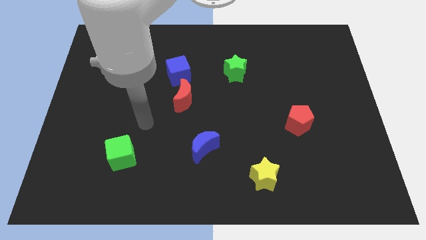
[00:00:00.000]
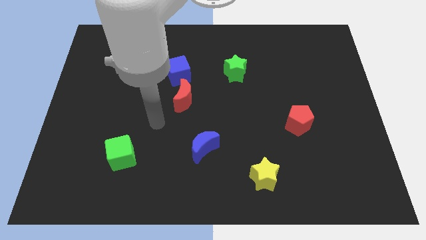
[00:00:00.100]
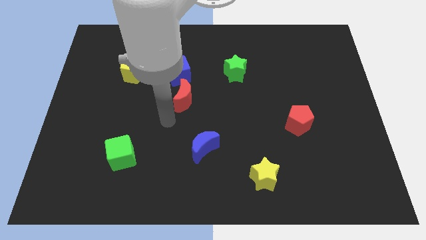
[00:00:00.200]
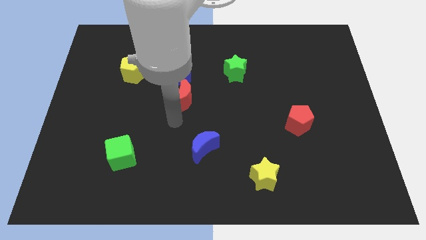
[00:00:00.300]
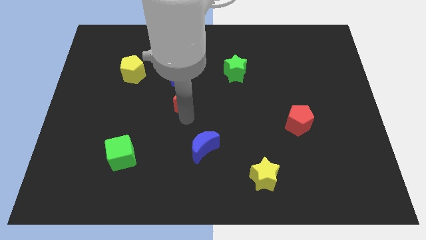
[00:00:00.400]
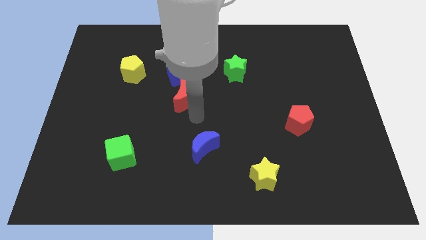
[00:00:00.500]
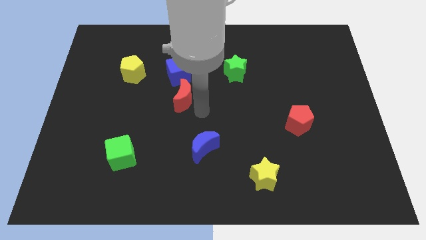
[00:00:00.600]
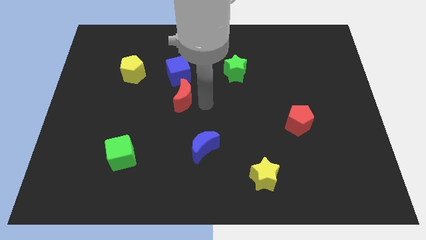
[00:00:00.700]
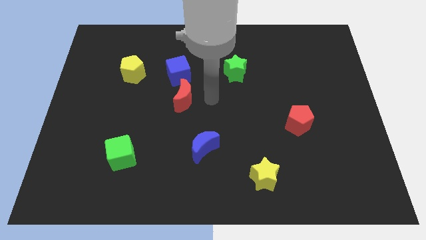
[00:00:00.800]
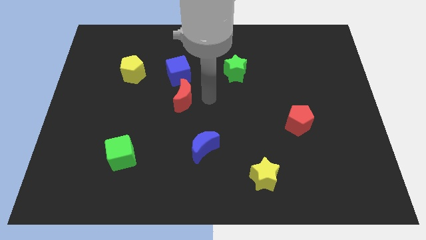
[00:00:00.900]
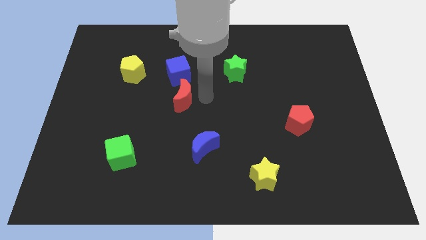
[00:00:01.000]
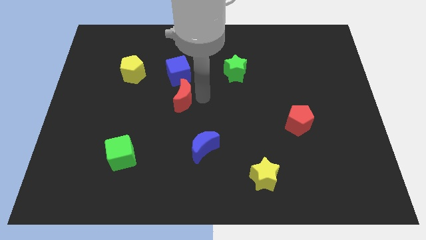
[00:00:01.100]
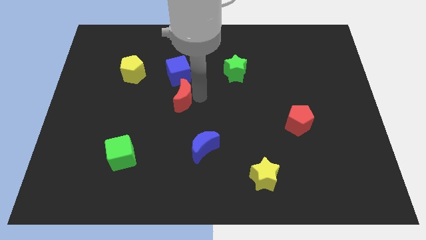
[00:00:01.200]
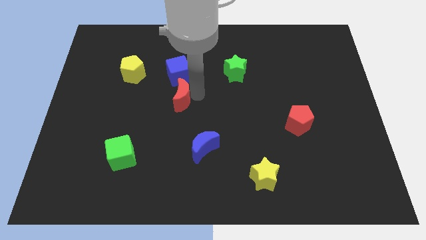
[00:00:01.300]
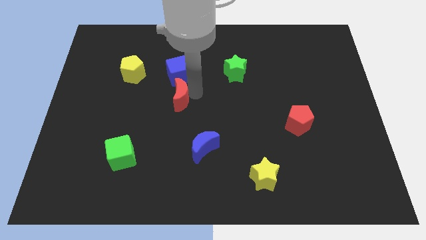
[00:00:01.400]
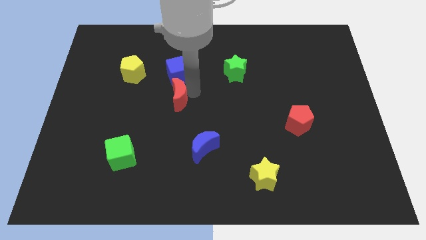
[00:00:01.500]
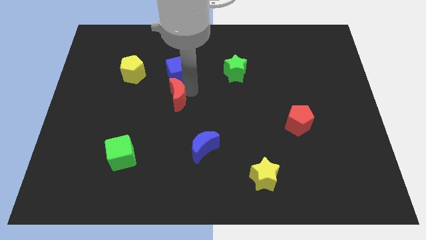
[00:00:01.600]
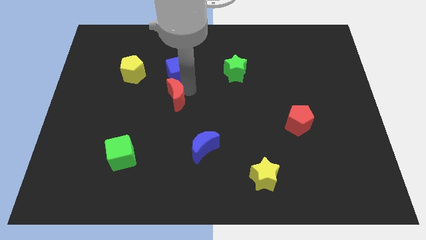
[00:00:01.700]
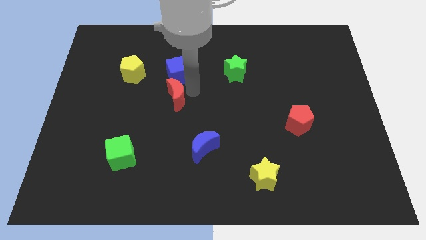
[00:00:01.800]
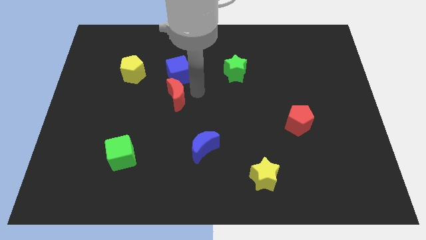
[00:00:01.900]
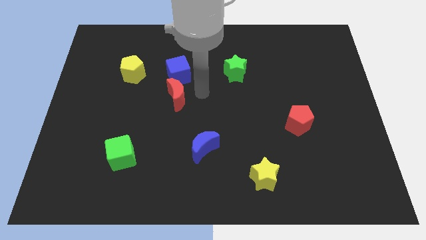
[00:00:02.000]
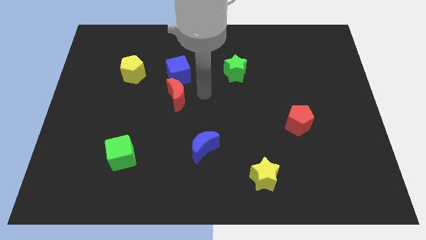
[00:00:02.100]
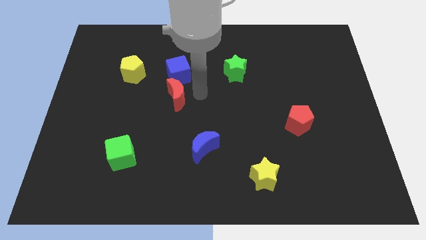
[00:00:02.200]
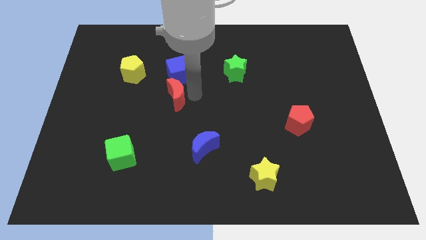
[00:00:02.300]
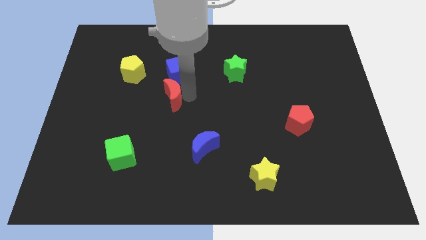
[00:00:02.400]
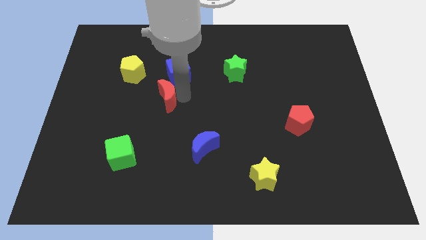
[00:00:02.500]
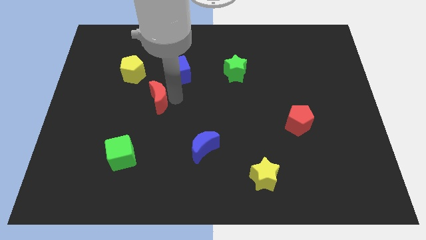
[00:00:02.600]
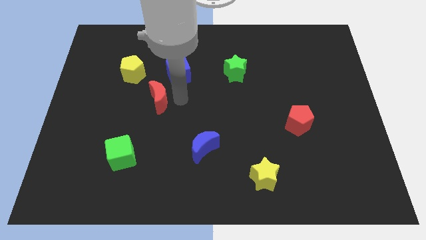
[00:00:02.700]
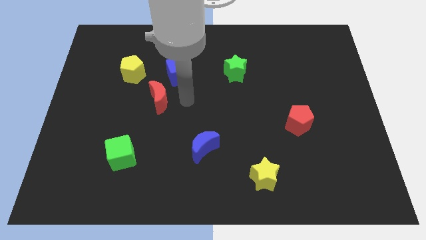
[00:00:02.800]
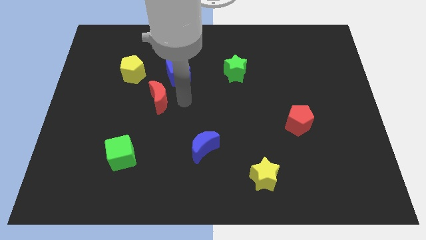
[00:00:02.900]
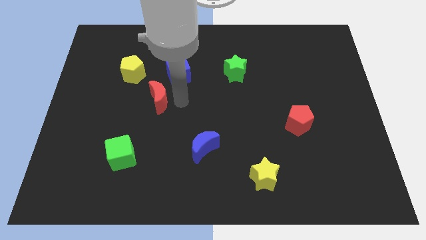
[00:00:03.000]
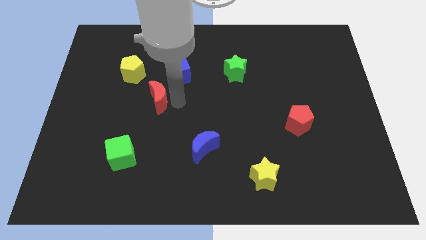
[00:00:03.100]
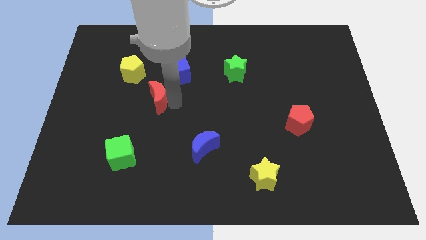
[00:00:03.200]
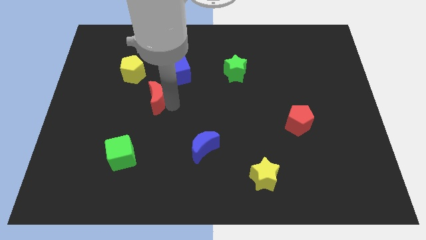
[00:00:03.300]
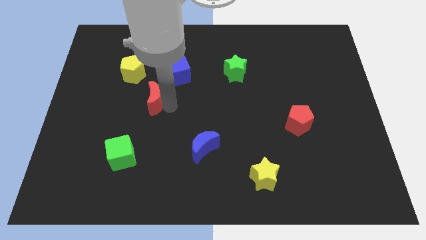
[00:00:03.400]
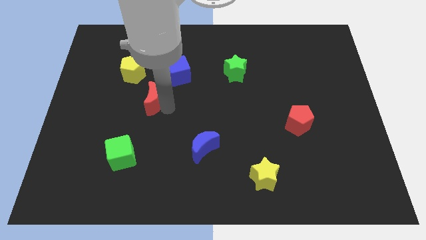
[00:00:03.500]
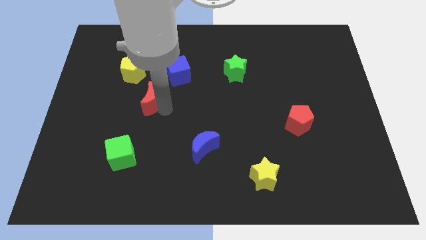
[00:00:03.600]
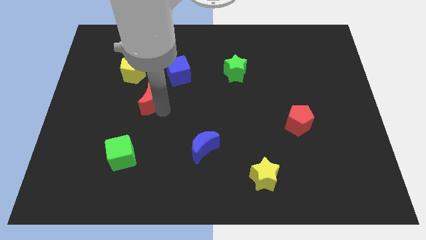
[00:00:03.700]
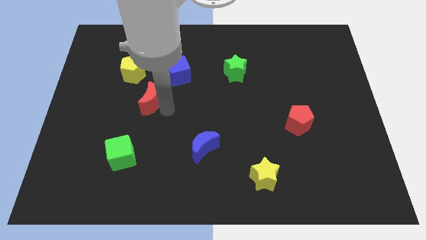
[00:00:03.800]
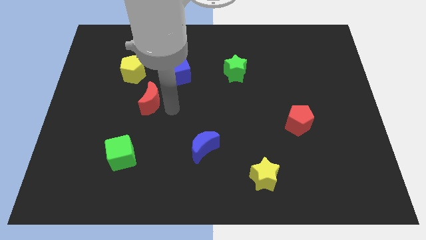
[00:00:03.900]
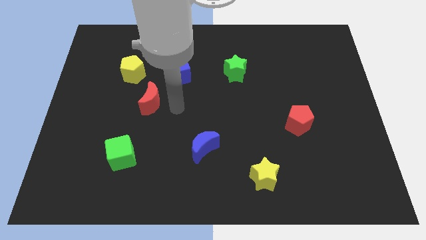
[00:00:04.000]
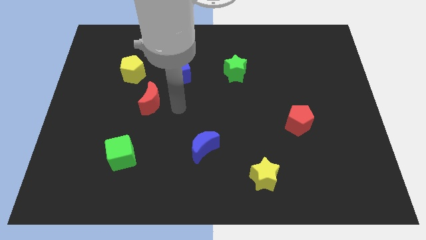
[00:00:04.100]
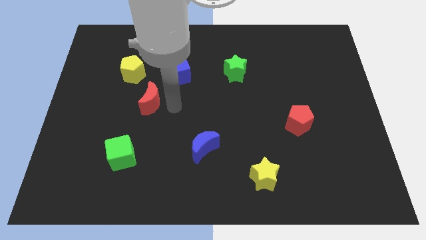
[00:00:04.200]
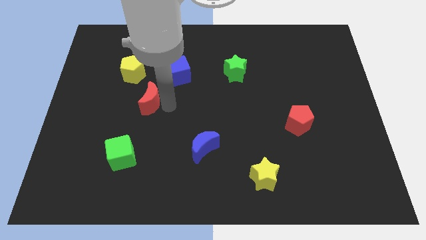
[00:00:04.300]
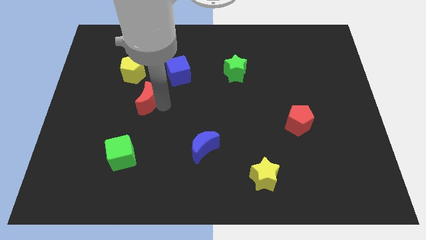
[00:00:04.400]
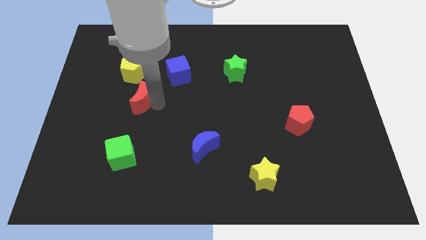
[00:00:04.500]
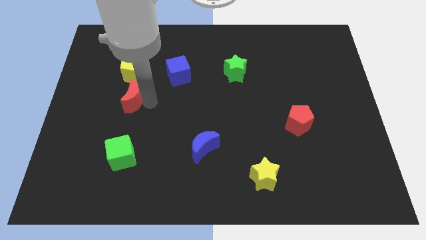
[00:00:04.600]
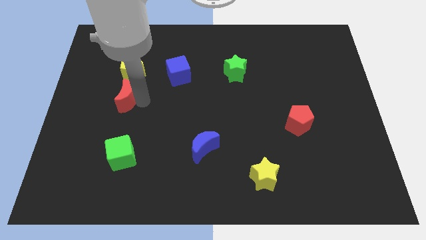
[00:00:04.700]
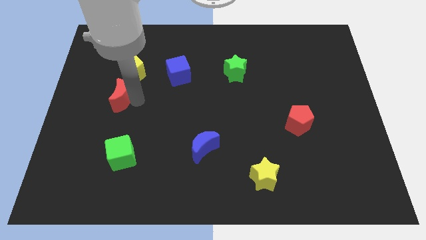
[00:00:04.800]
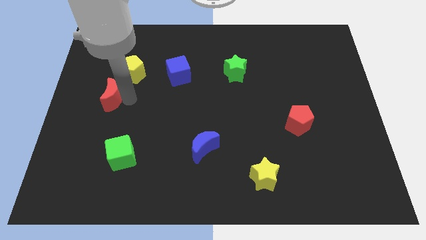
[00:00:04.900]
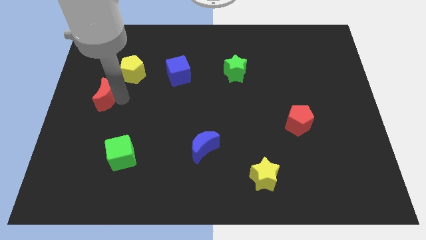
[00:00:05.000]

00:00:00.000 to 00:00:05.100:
push the red moon to the left side of the board

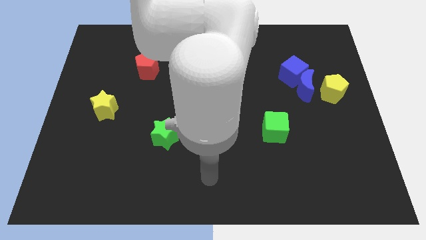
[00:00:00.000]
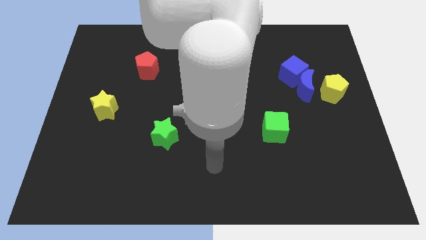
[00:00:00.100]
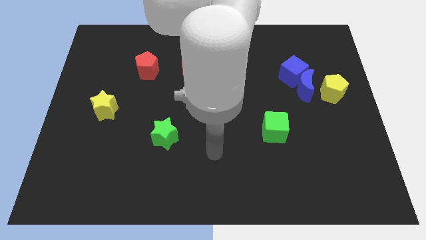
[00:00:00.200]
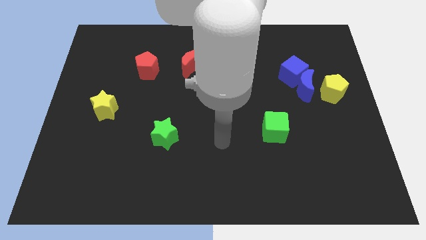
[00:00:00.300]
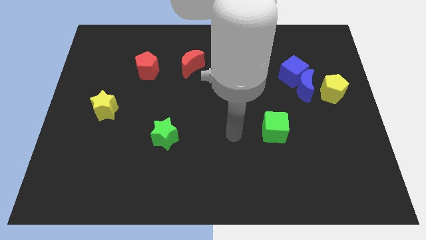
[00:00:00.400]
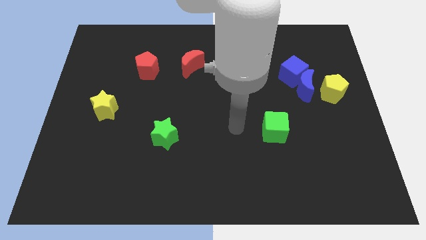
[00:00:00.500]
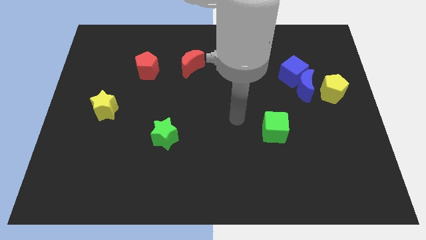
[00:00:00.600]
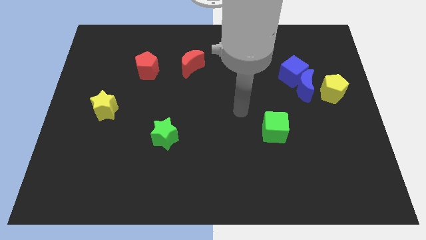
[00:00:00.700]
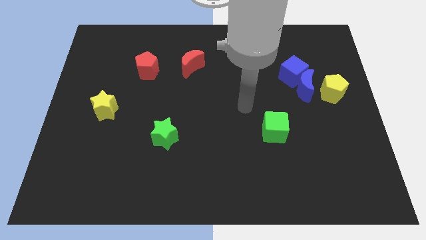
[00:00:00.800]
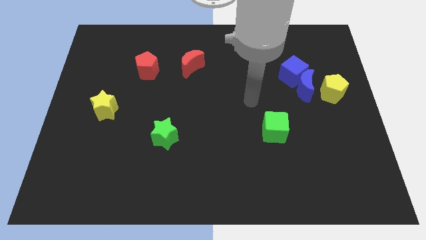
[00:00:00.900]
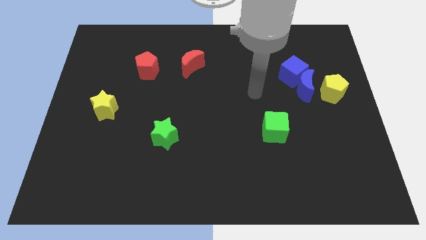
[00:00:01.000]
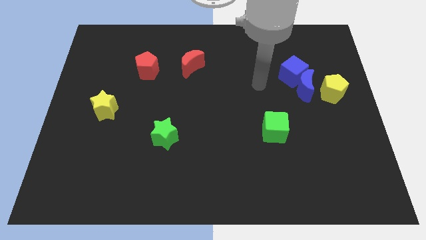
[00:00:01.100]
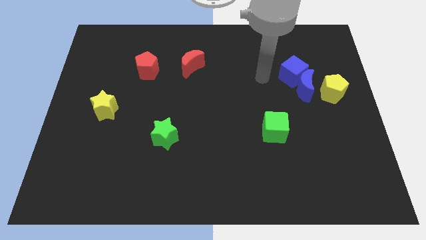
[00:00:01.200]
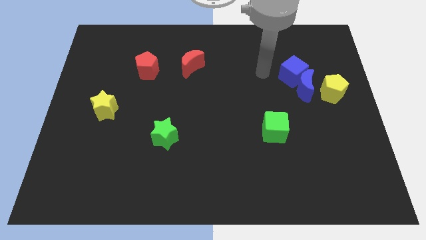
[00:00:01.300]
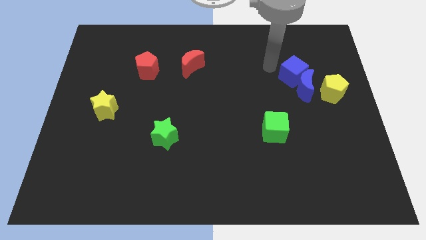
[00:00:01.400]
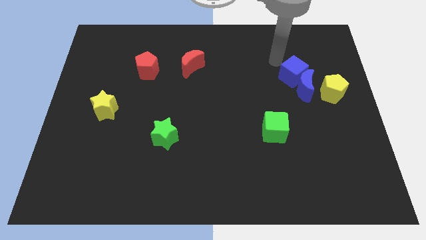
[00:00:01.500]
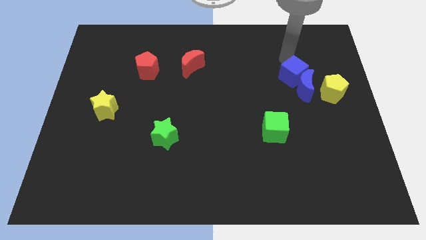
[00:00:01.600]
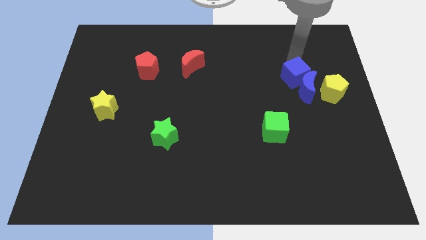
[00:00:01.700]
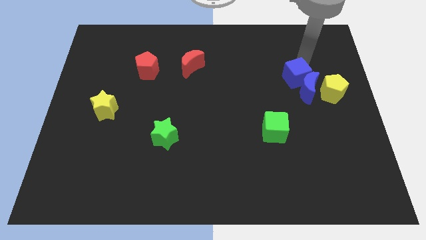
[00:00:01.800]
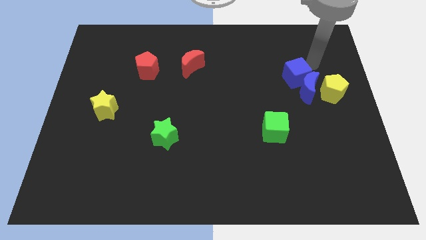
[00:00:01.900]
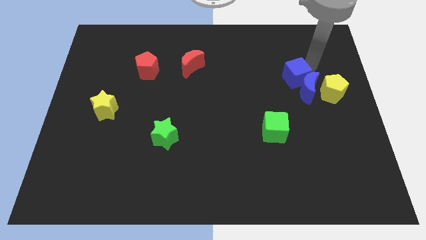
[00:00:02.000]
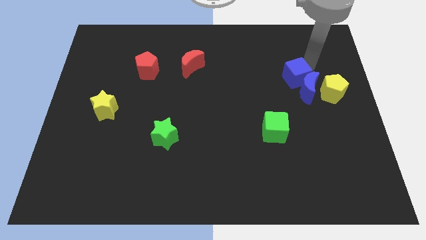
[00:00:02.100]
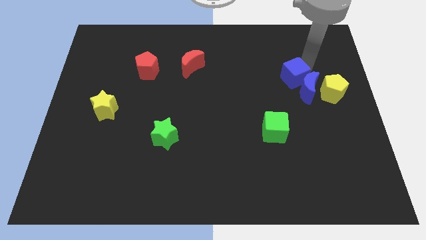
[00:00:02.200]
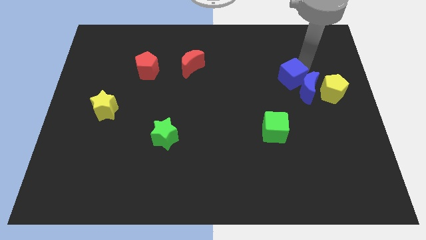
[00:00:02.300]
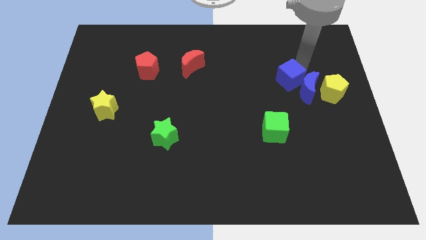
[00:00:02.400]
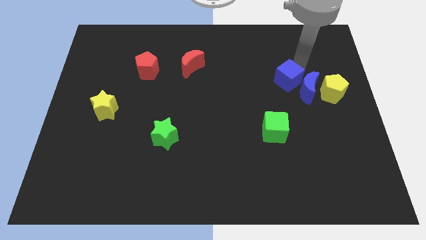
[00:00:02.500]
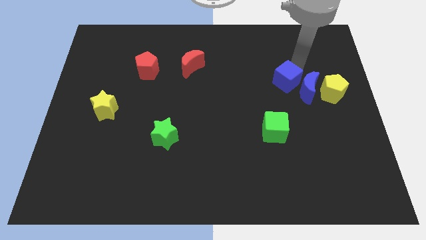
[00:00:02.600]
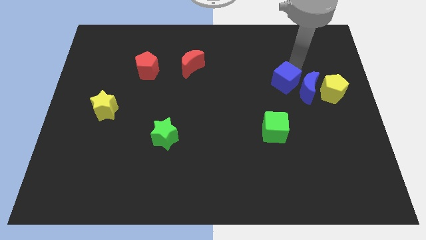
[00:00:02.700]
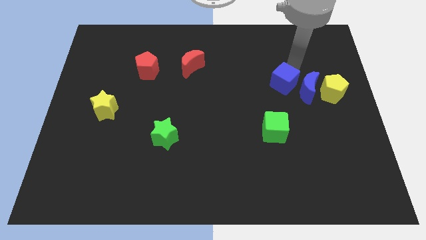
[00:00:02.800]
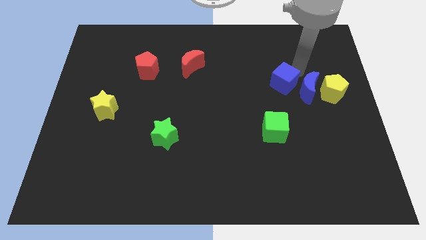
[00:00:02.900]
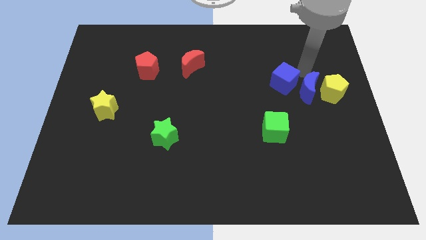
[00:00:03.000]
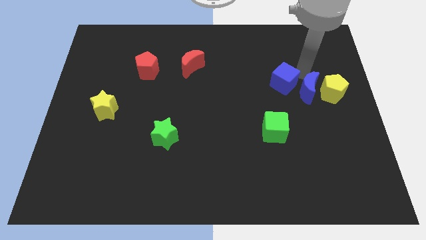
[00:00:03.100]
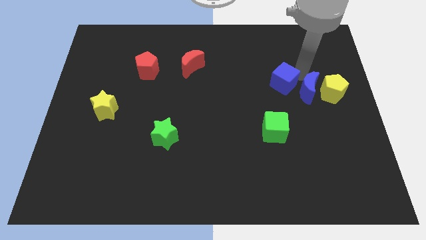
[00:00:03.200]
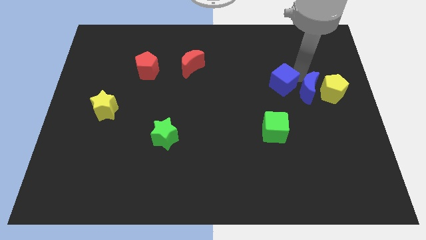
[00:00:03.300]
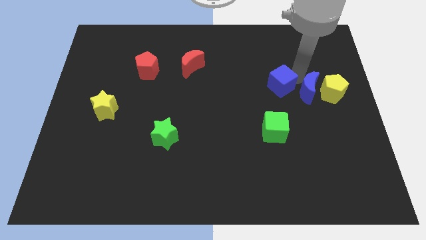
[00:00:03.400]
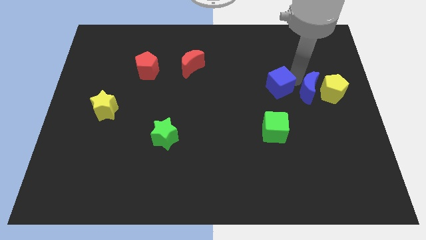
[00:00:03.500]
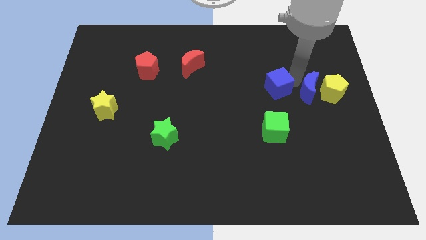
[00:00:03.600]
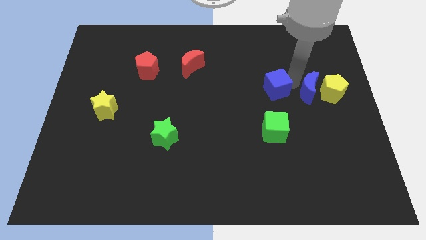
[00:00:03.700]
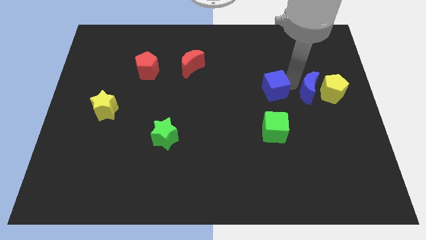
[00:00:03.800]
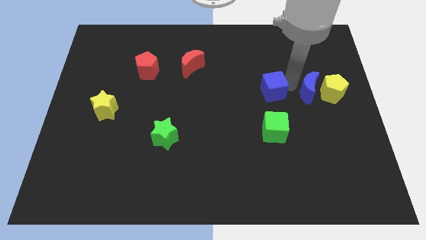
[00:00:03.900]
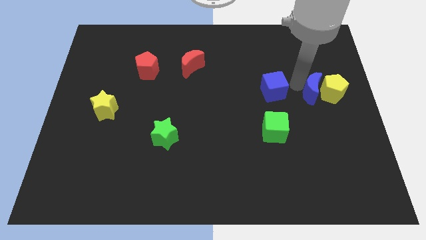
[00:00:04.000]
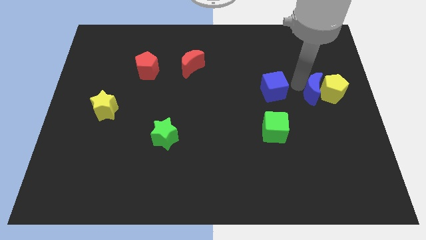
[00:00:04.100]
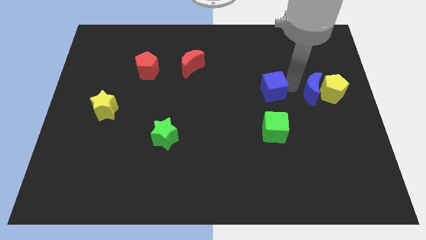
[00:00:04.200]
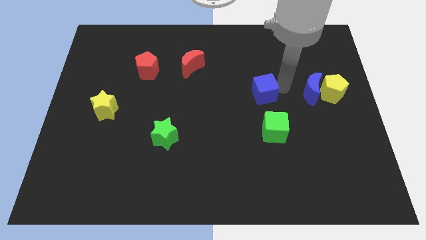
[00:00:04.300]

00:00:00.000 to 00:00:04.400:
slide the blue cube to the center
